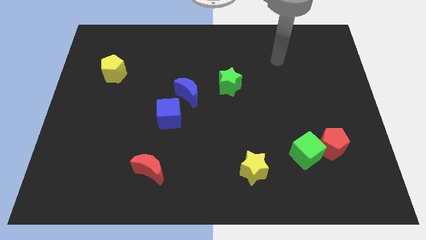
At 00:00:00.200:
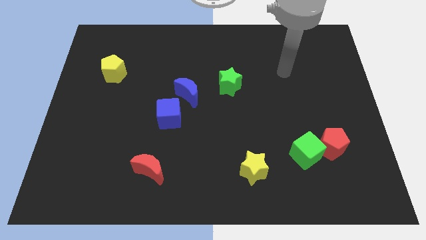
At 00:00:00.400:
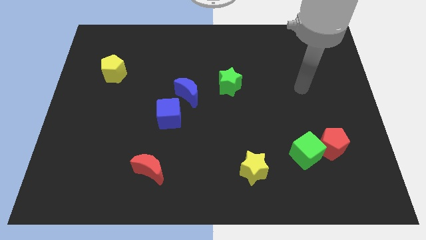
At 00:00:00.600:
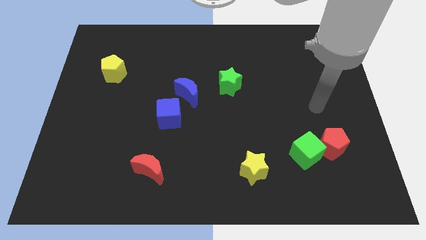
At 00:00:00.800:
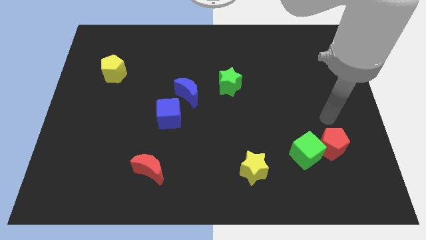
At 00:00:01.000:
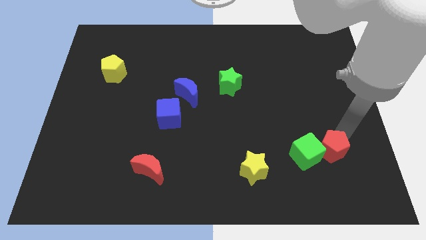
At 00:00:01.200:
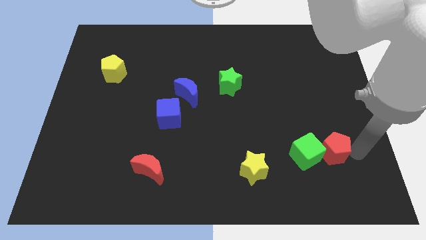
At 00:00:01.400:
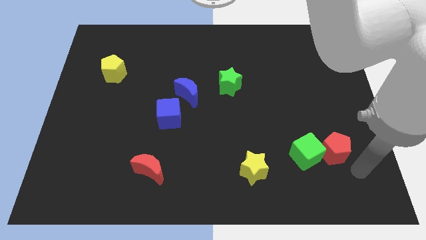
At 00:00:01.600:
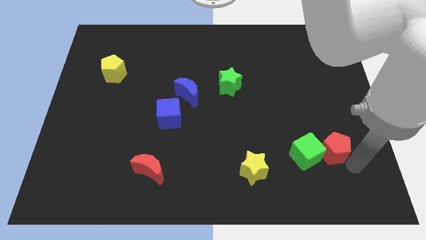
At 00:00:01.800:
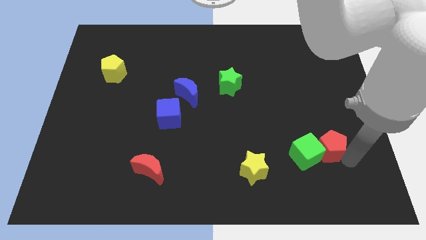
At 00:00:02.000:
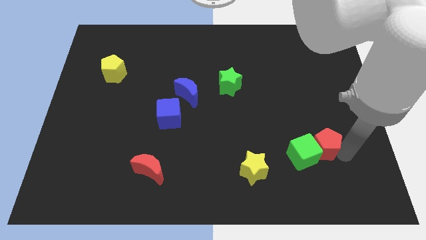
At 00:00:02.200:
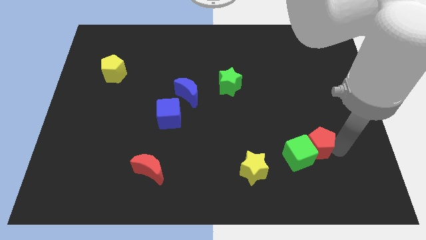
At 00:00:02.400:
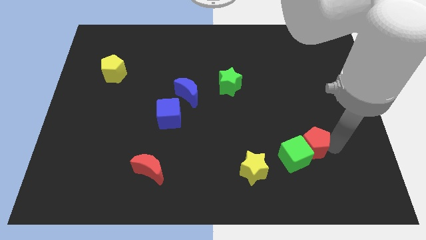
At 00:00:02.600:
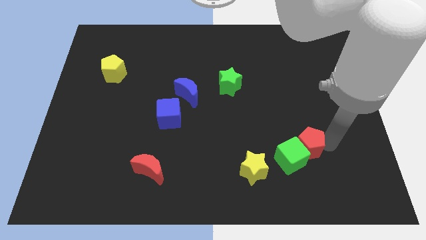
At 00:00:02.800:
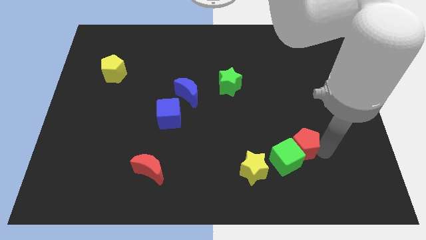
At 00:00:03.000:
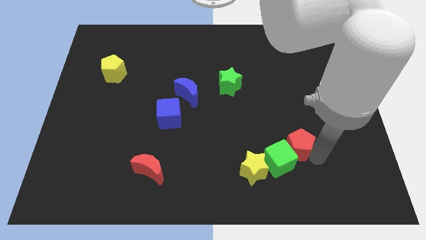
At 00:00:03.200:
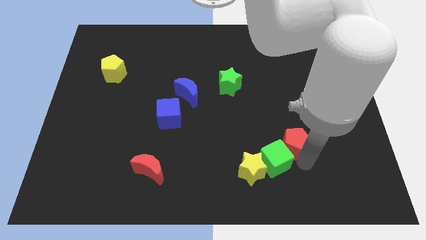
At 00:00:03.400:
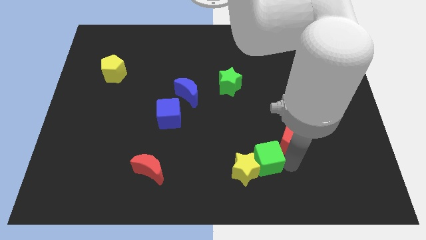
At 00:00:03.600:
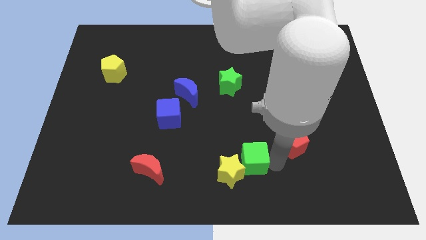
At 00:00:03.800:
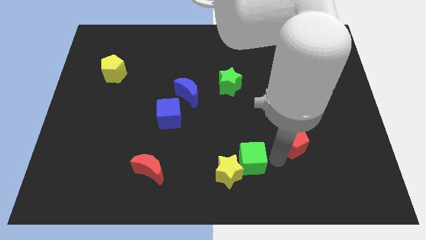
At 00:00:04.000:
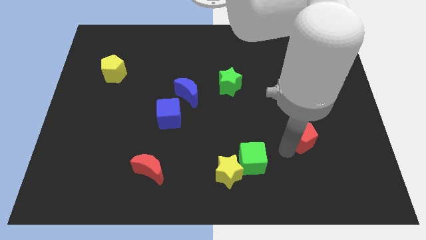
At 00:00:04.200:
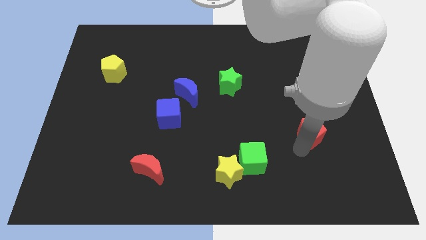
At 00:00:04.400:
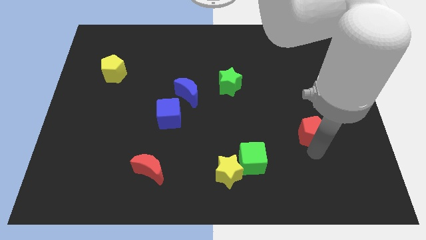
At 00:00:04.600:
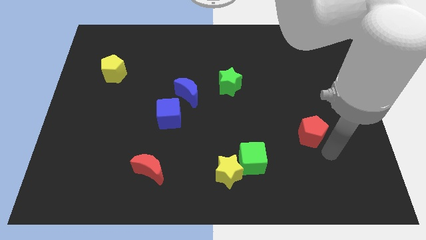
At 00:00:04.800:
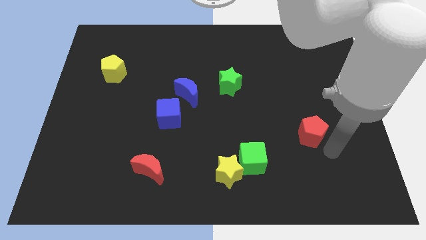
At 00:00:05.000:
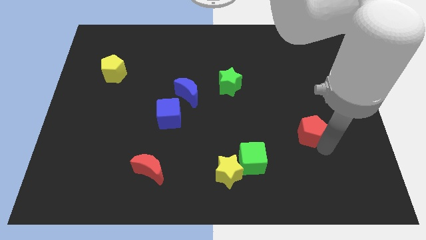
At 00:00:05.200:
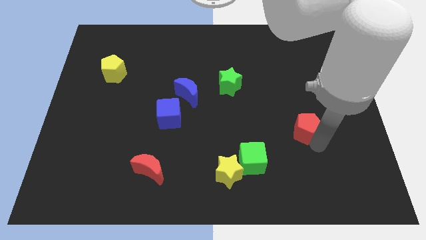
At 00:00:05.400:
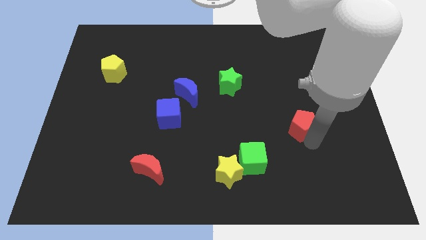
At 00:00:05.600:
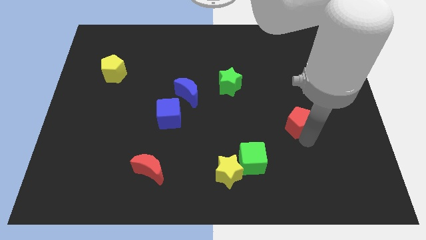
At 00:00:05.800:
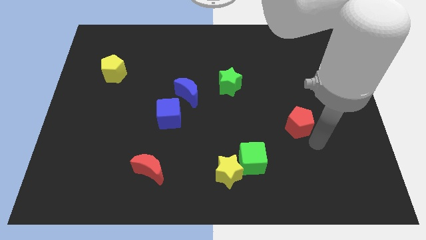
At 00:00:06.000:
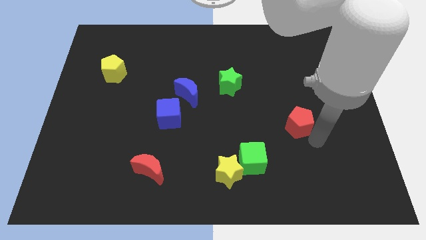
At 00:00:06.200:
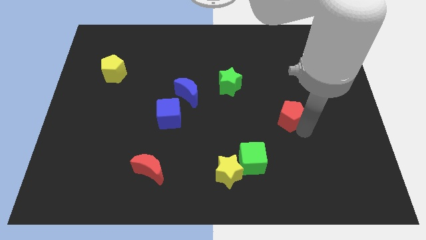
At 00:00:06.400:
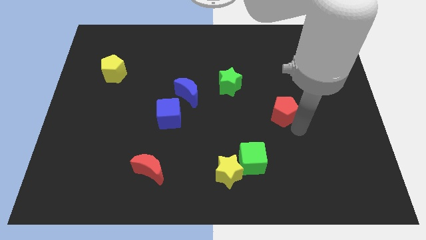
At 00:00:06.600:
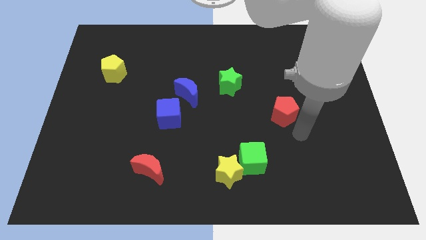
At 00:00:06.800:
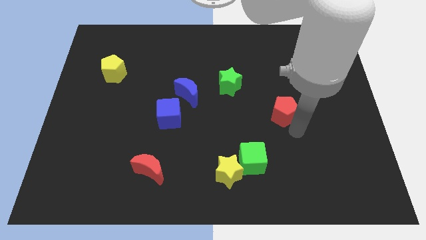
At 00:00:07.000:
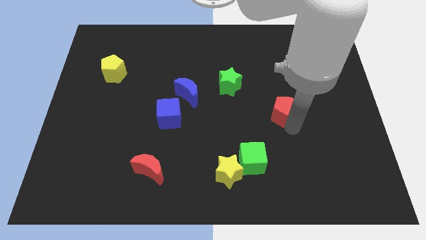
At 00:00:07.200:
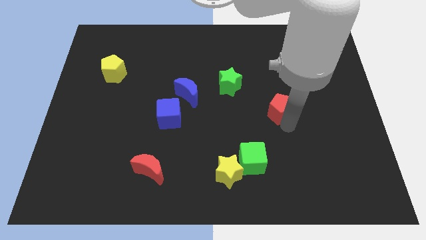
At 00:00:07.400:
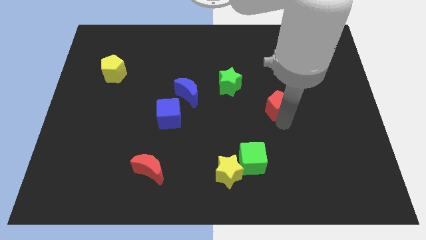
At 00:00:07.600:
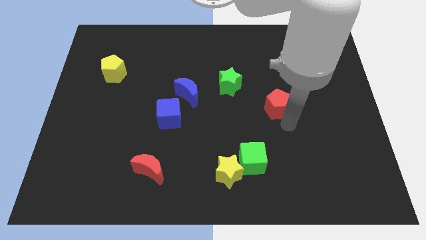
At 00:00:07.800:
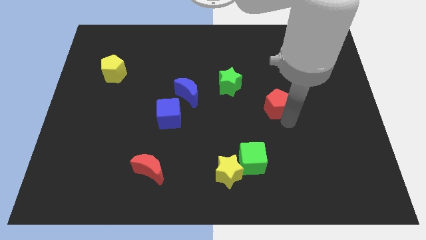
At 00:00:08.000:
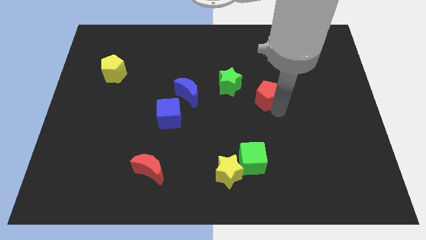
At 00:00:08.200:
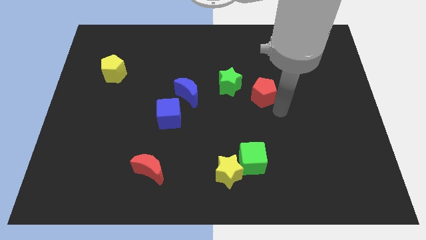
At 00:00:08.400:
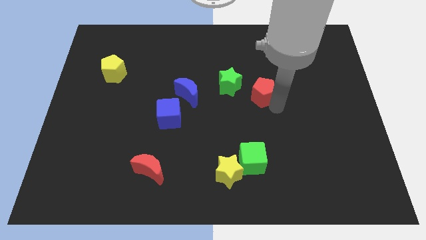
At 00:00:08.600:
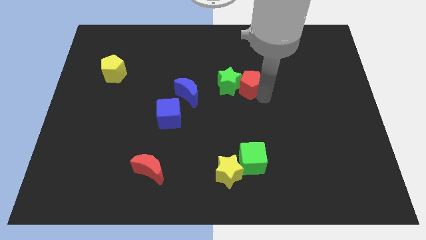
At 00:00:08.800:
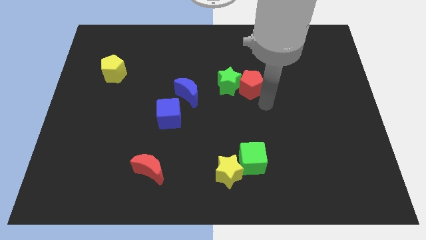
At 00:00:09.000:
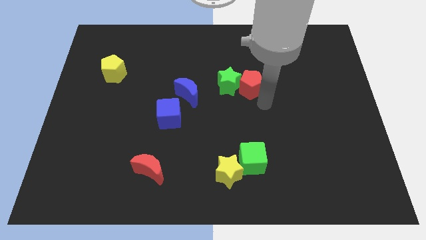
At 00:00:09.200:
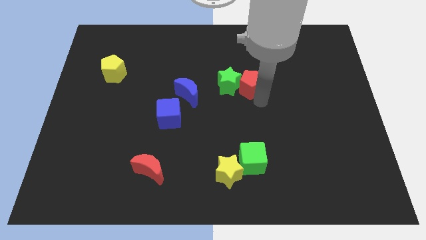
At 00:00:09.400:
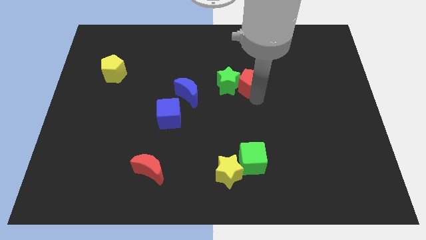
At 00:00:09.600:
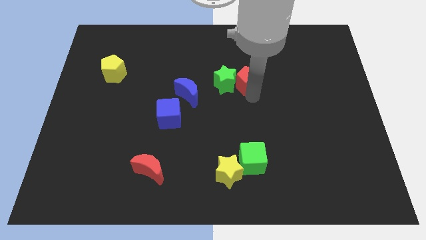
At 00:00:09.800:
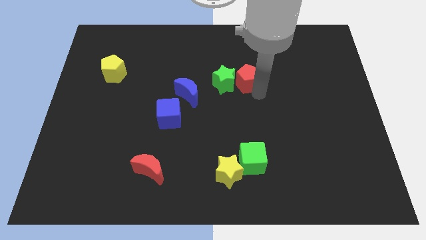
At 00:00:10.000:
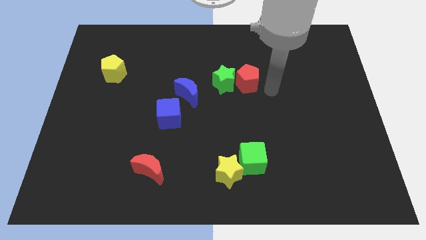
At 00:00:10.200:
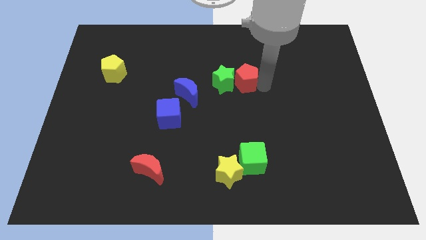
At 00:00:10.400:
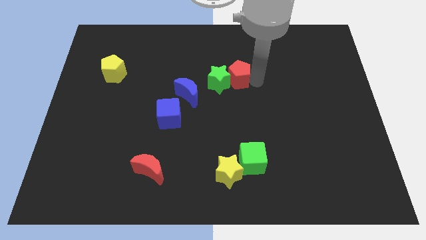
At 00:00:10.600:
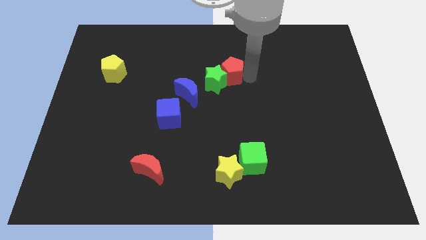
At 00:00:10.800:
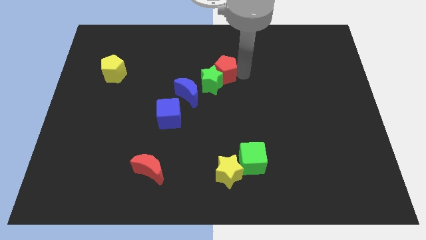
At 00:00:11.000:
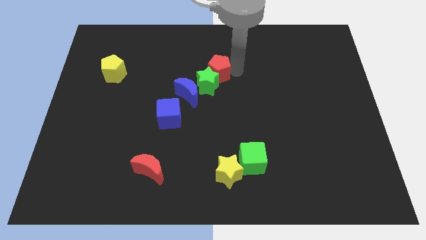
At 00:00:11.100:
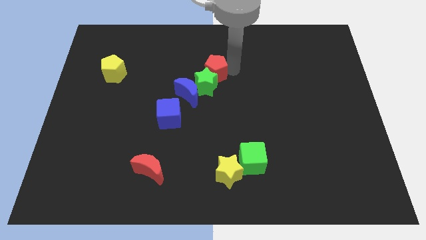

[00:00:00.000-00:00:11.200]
slide the red pentagon diagonally up and to the left of the green star

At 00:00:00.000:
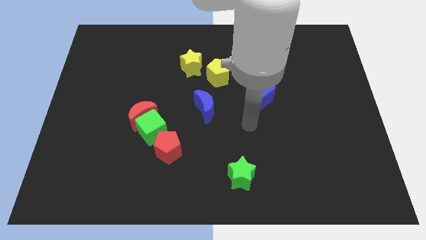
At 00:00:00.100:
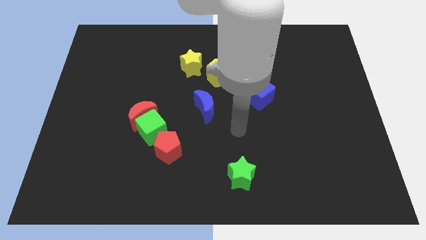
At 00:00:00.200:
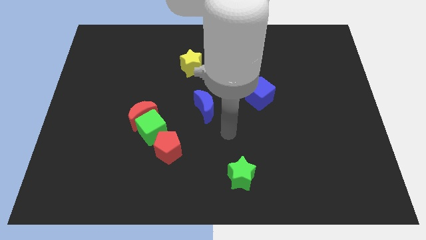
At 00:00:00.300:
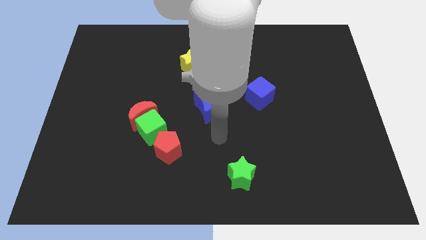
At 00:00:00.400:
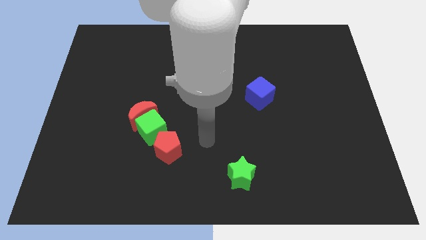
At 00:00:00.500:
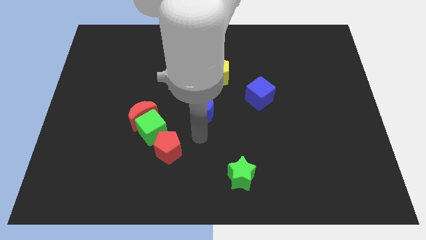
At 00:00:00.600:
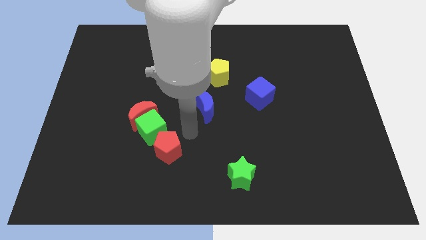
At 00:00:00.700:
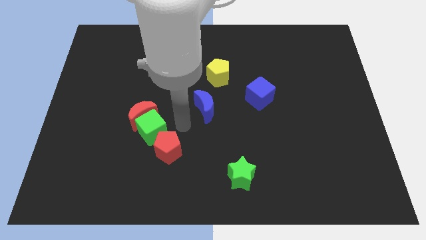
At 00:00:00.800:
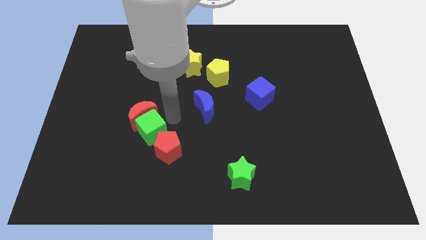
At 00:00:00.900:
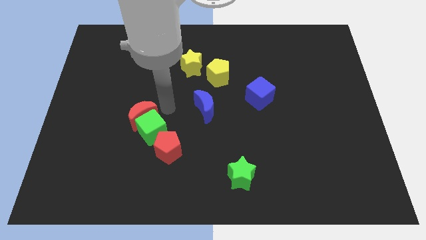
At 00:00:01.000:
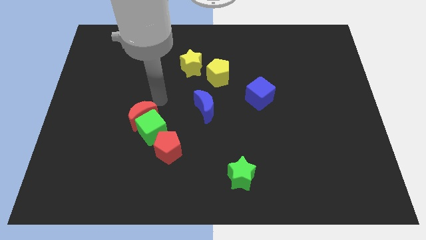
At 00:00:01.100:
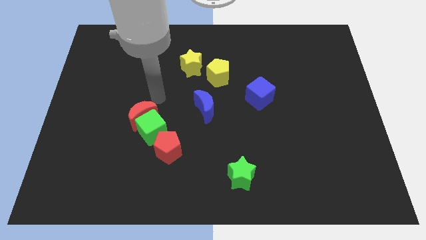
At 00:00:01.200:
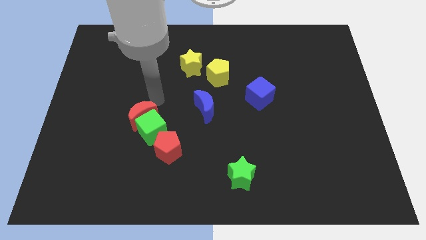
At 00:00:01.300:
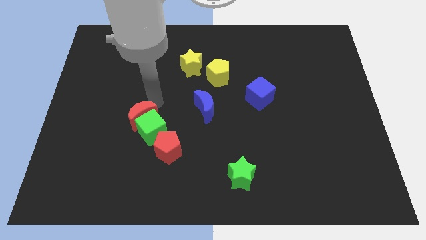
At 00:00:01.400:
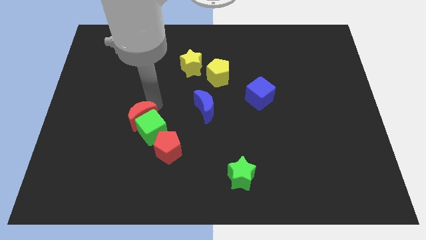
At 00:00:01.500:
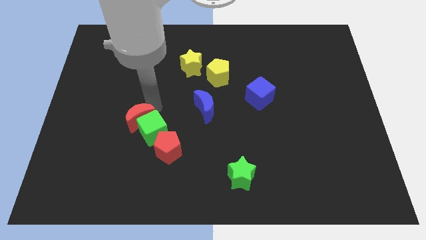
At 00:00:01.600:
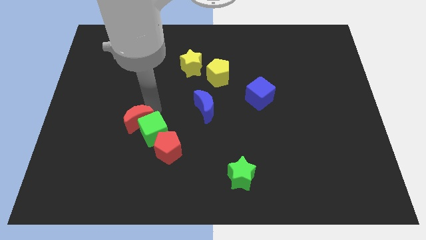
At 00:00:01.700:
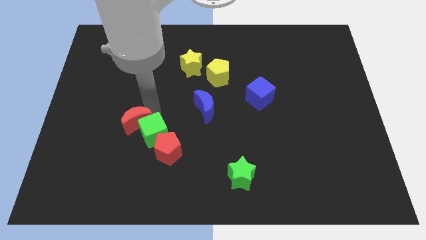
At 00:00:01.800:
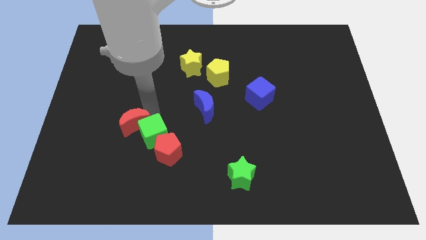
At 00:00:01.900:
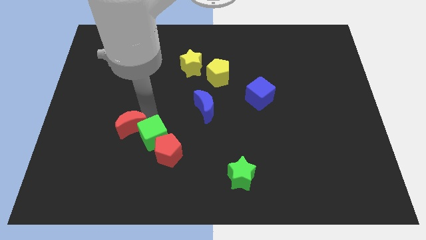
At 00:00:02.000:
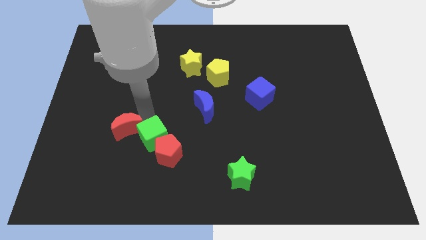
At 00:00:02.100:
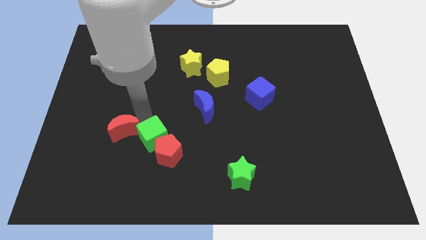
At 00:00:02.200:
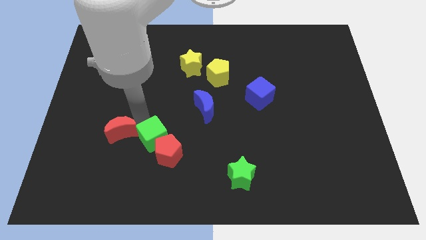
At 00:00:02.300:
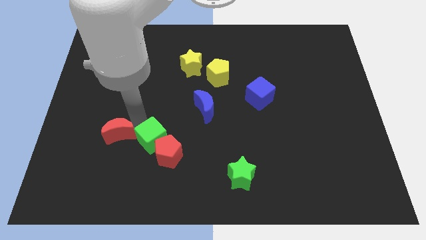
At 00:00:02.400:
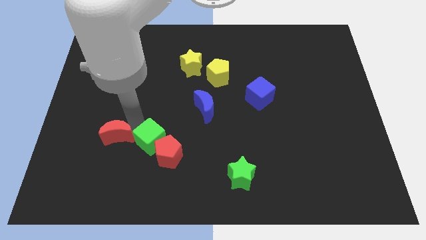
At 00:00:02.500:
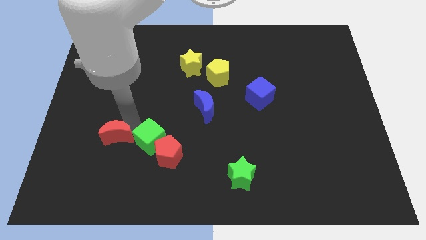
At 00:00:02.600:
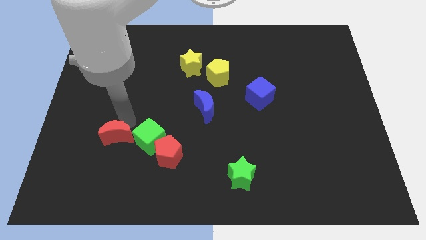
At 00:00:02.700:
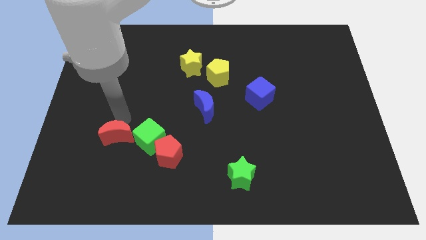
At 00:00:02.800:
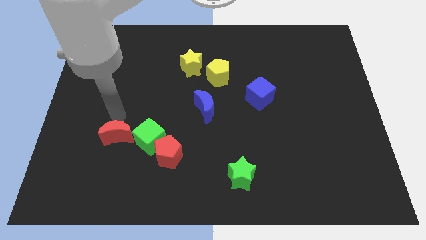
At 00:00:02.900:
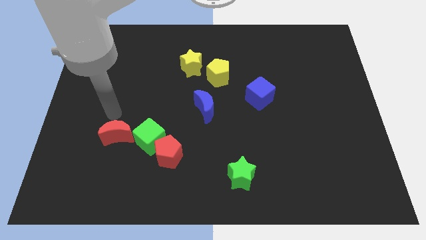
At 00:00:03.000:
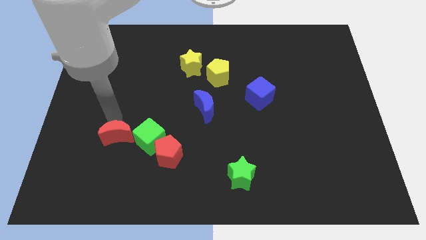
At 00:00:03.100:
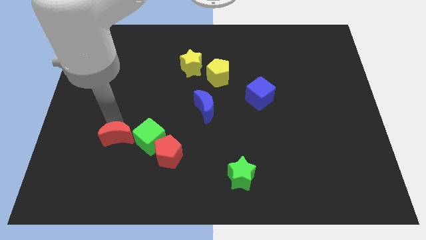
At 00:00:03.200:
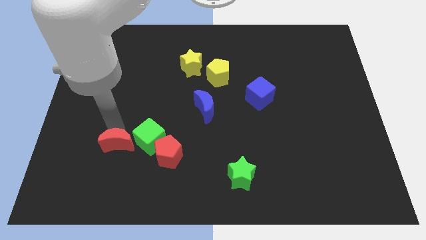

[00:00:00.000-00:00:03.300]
slide the red moon to the bottom left side of the green cube
